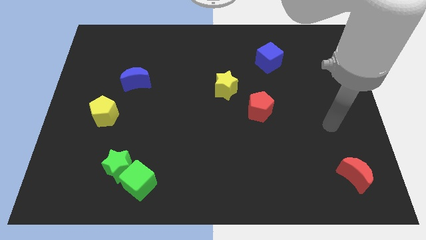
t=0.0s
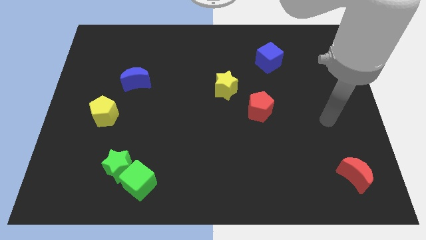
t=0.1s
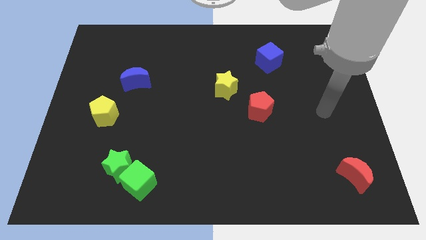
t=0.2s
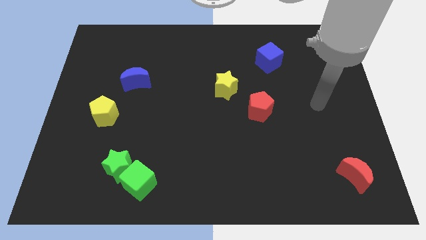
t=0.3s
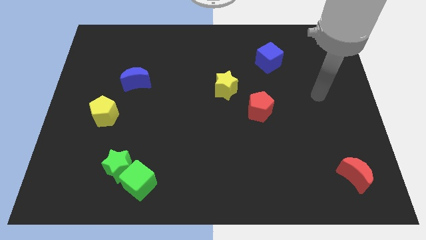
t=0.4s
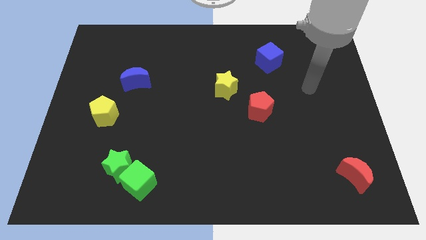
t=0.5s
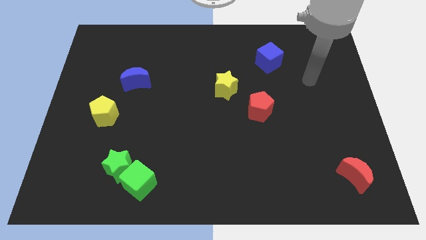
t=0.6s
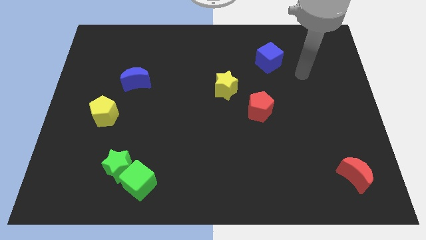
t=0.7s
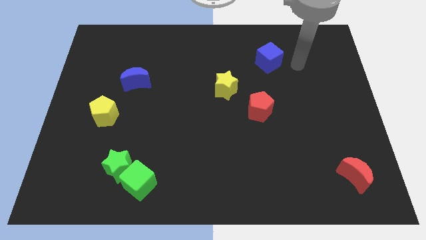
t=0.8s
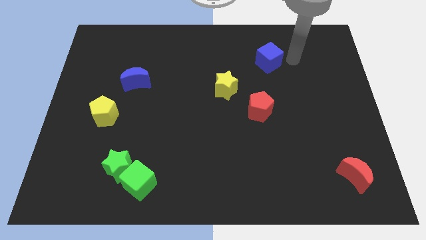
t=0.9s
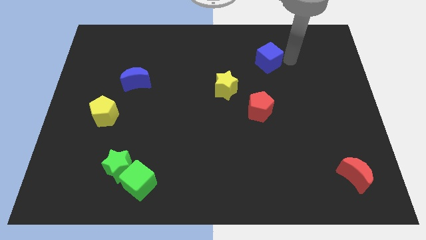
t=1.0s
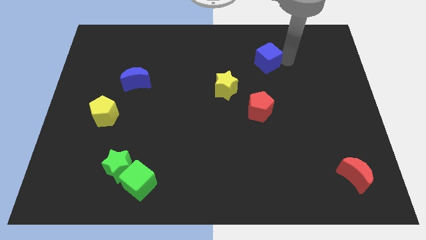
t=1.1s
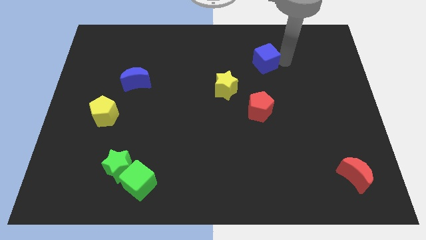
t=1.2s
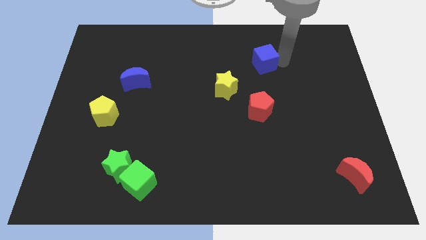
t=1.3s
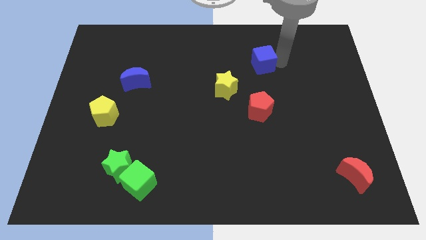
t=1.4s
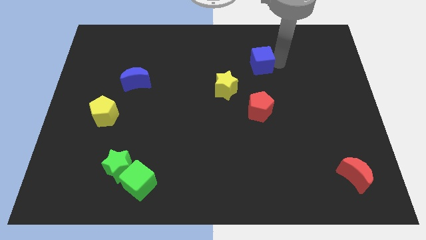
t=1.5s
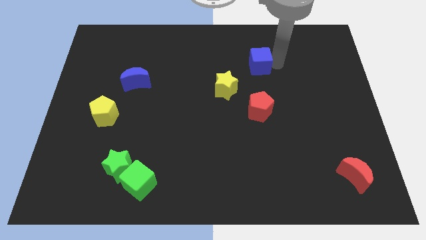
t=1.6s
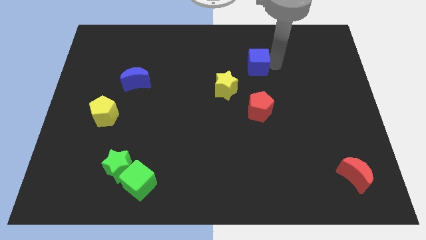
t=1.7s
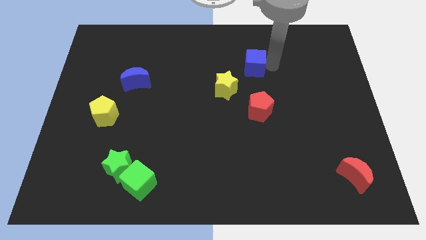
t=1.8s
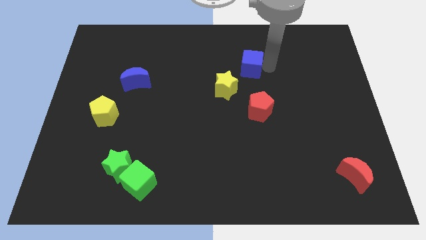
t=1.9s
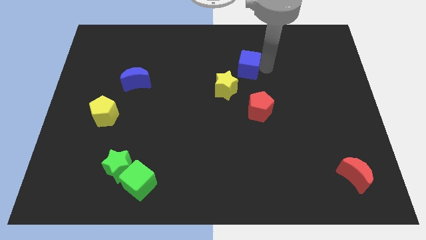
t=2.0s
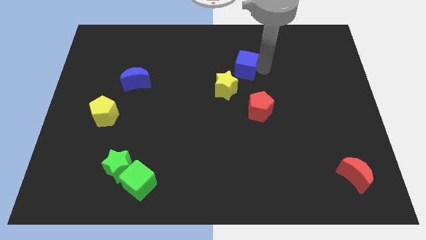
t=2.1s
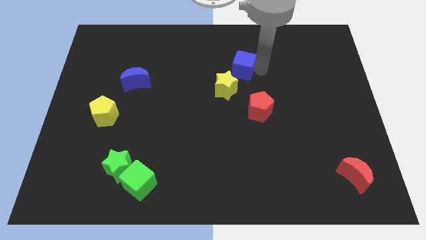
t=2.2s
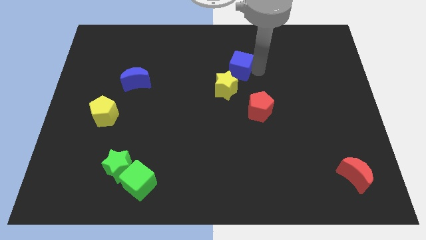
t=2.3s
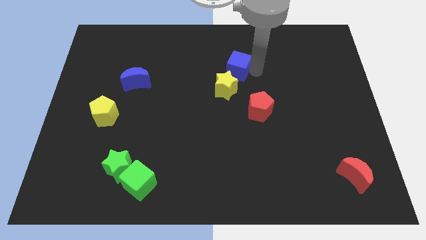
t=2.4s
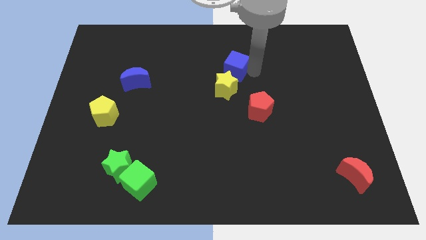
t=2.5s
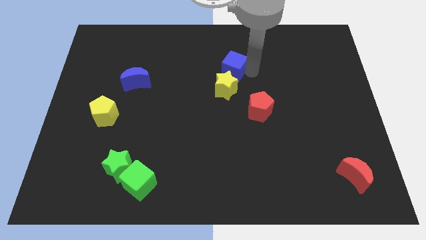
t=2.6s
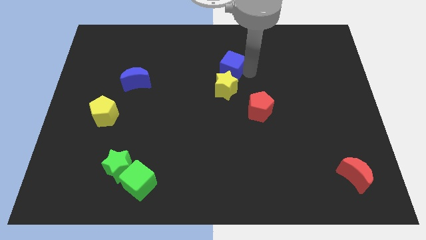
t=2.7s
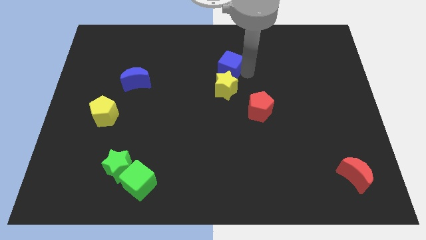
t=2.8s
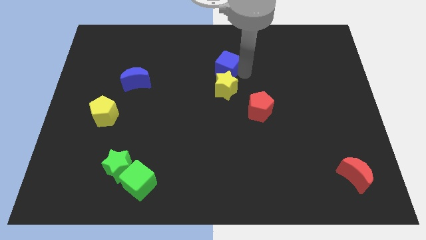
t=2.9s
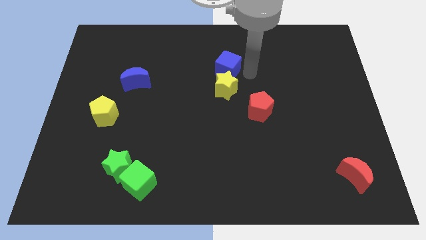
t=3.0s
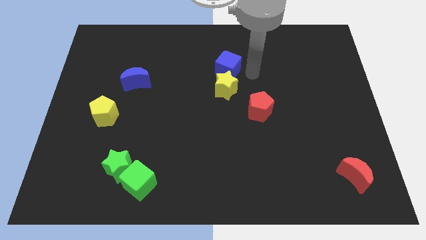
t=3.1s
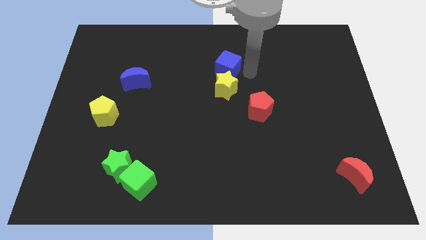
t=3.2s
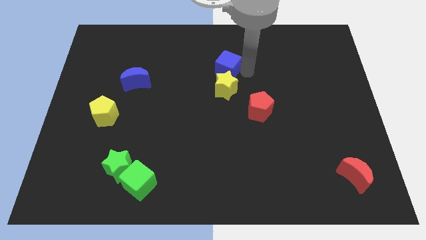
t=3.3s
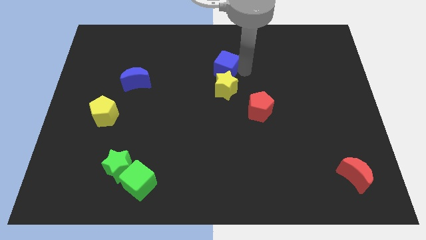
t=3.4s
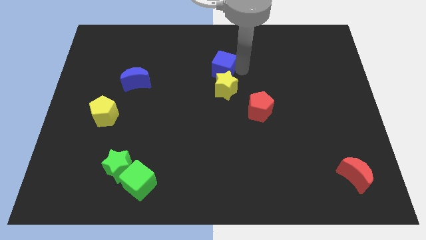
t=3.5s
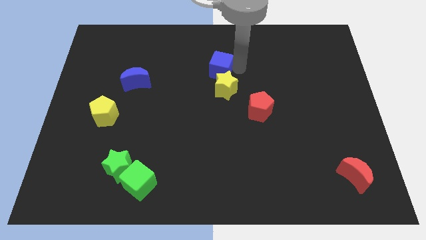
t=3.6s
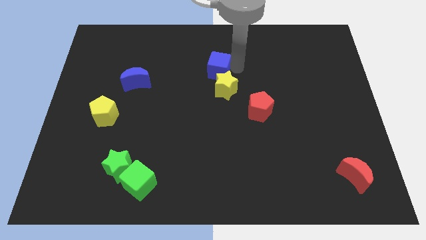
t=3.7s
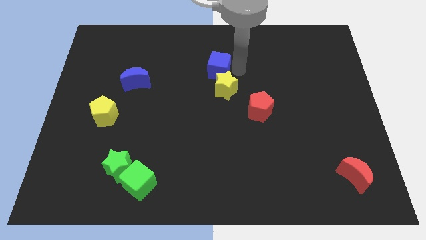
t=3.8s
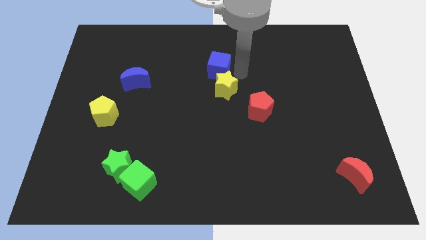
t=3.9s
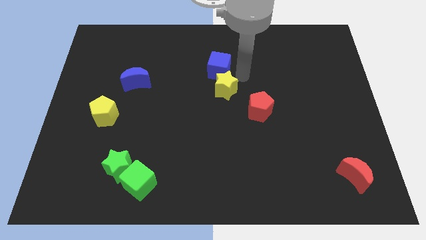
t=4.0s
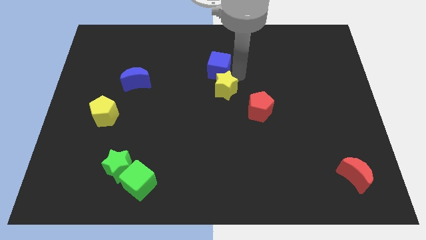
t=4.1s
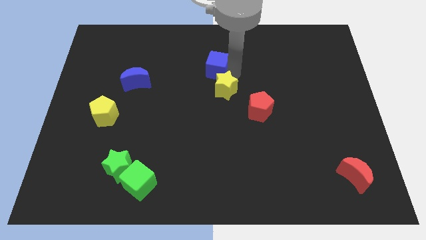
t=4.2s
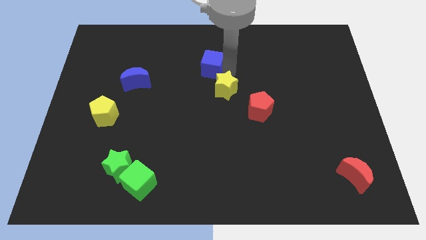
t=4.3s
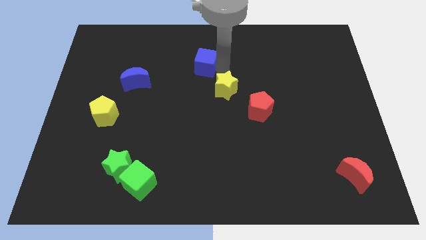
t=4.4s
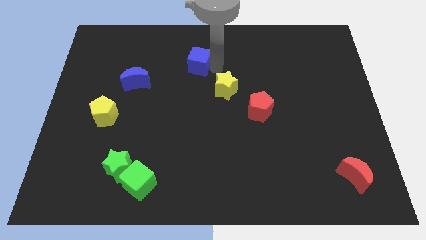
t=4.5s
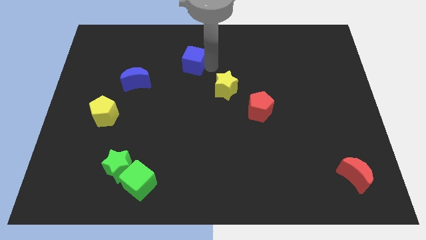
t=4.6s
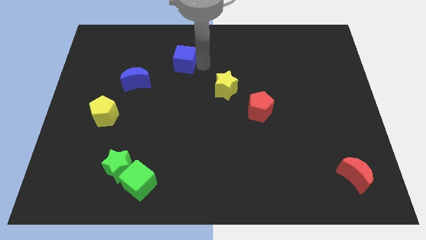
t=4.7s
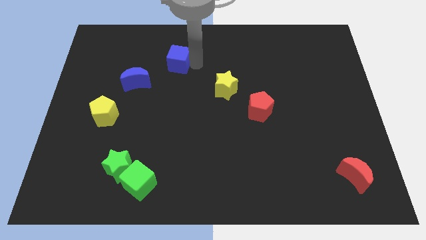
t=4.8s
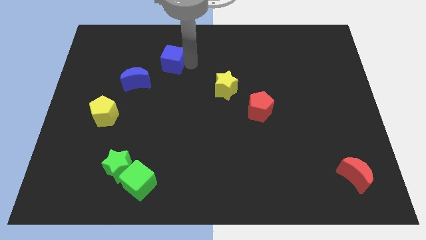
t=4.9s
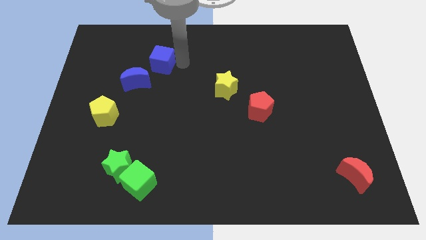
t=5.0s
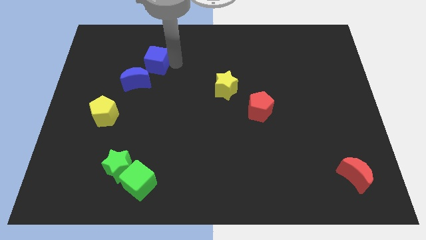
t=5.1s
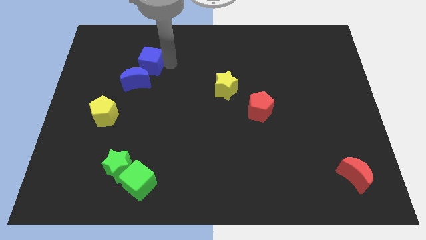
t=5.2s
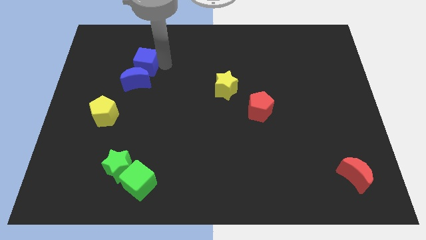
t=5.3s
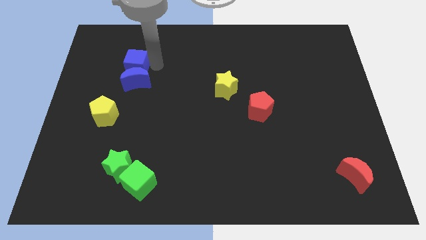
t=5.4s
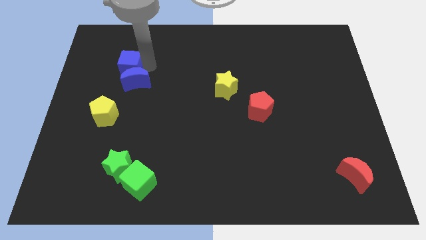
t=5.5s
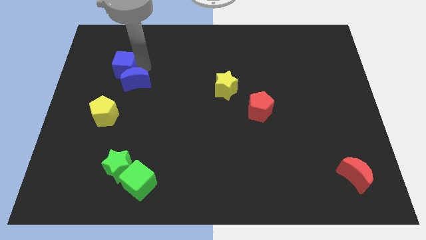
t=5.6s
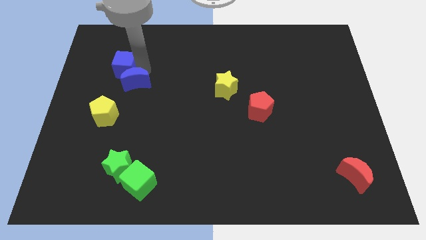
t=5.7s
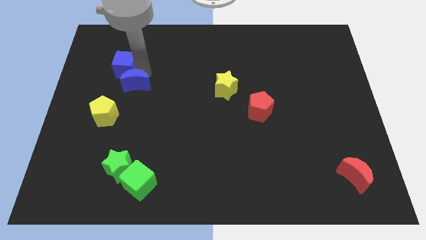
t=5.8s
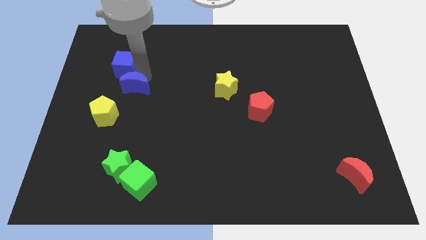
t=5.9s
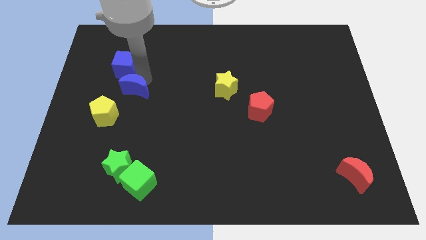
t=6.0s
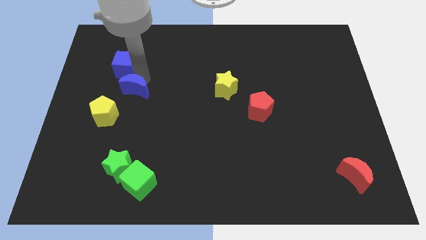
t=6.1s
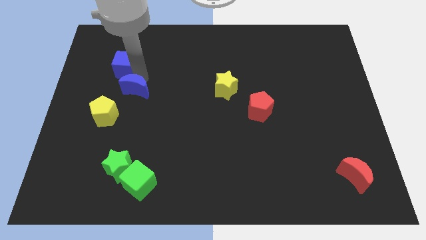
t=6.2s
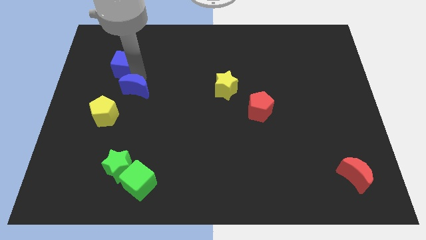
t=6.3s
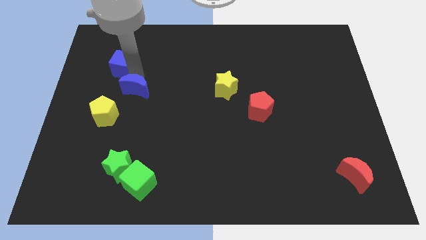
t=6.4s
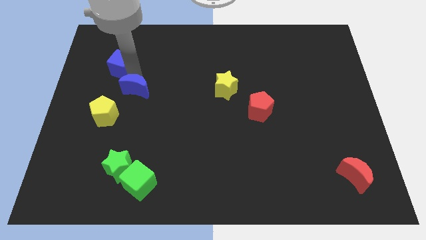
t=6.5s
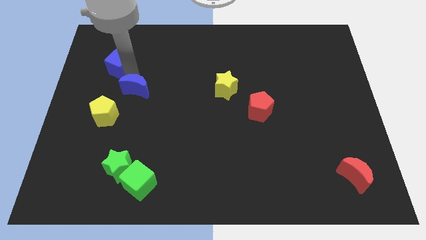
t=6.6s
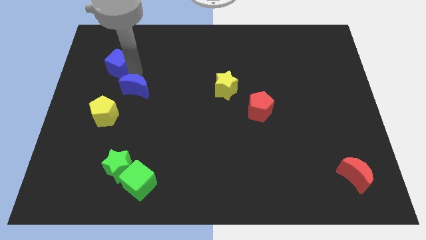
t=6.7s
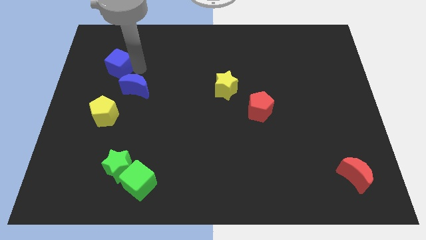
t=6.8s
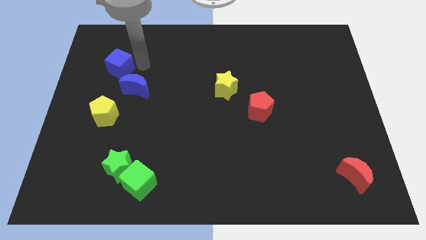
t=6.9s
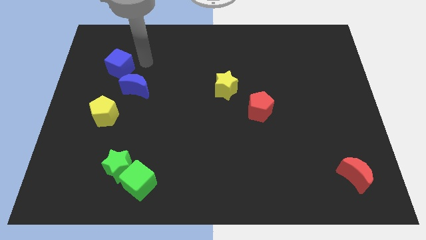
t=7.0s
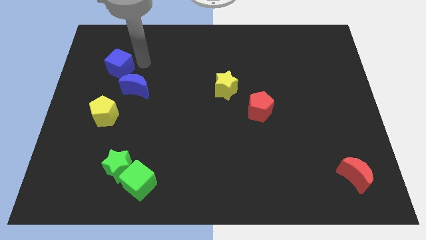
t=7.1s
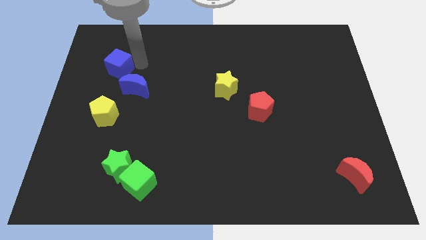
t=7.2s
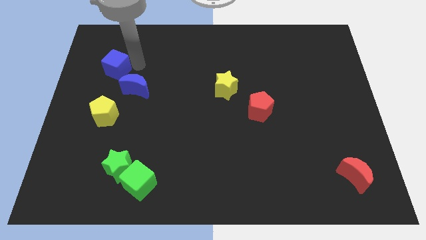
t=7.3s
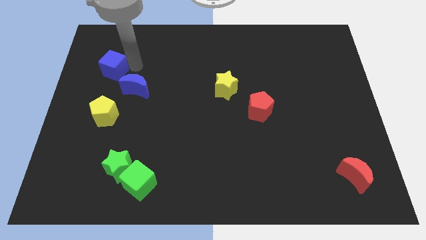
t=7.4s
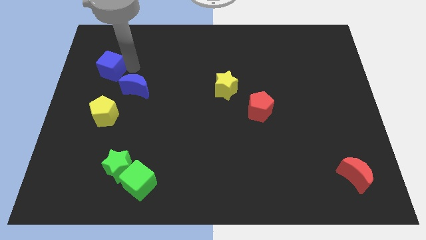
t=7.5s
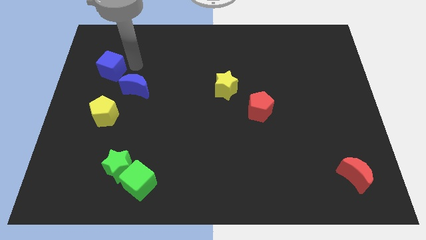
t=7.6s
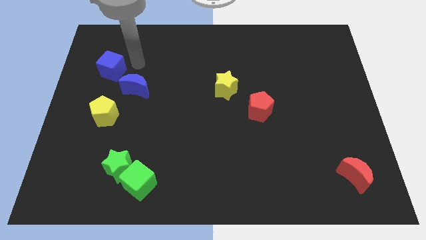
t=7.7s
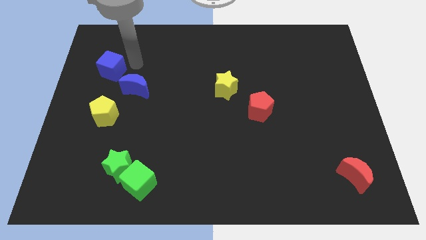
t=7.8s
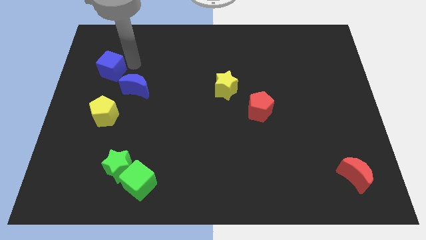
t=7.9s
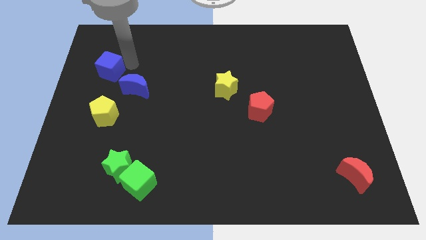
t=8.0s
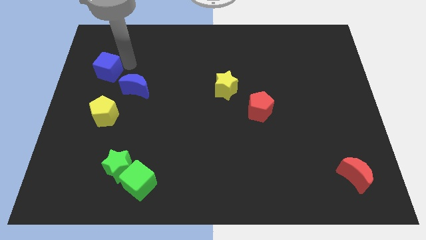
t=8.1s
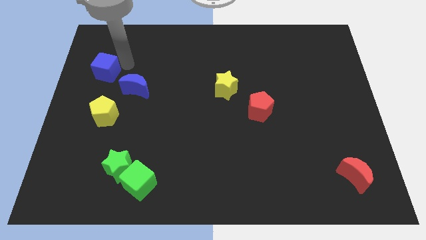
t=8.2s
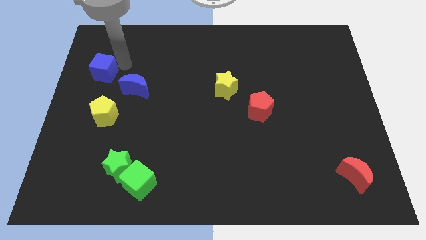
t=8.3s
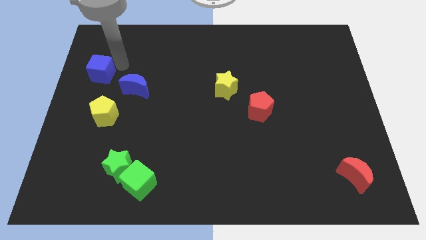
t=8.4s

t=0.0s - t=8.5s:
move the blue cube to the left side
